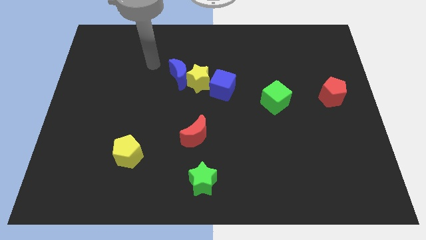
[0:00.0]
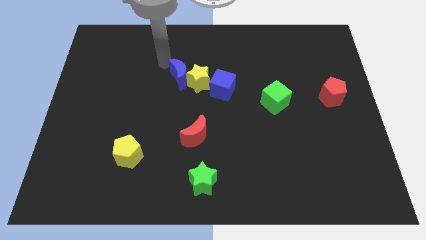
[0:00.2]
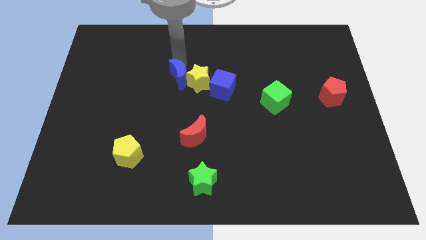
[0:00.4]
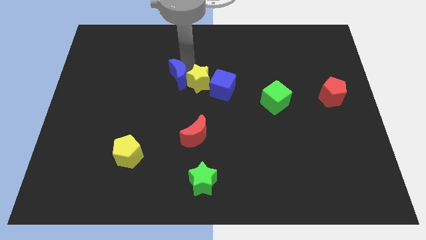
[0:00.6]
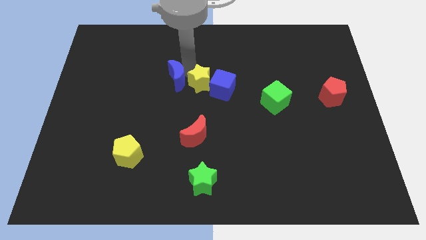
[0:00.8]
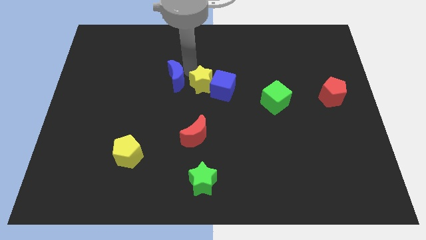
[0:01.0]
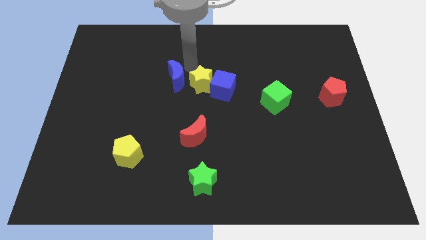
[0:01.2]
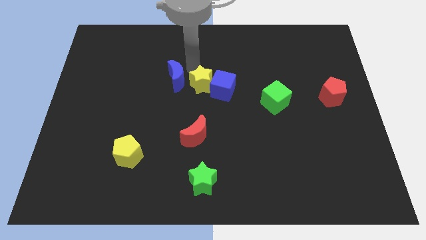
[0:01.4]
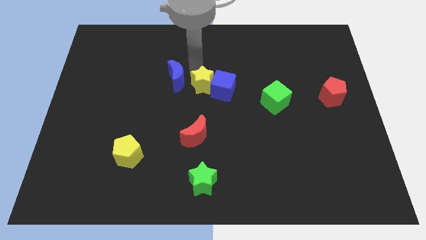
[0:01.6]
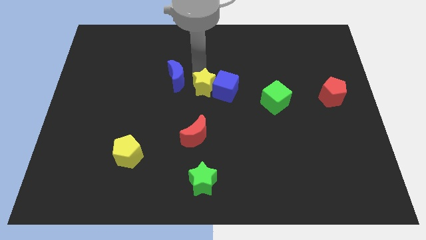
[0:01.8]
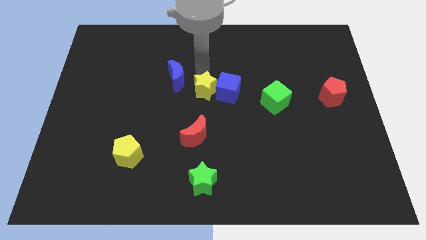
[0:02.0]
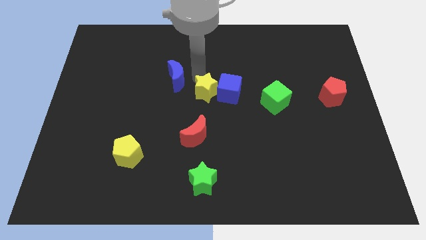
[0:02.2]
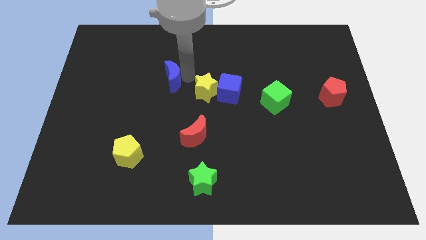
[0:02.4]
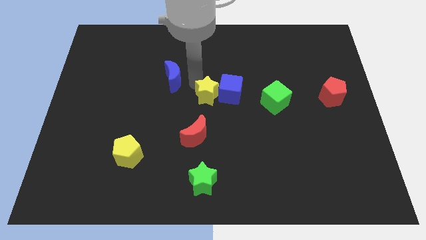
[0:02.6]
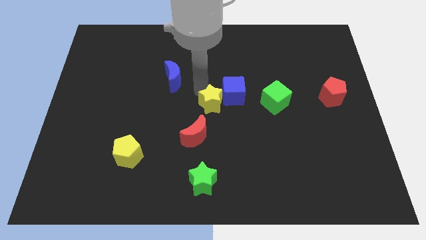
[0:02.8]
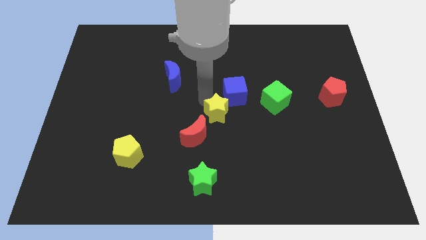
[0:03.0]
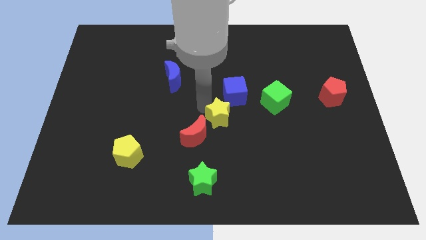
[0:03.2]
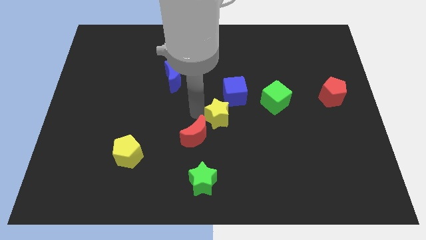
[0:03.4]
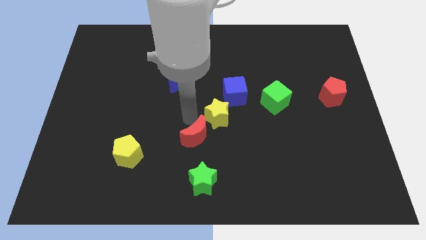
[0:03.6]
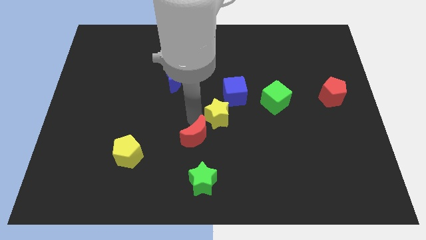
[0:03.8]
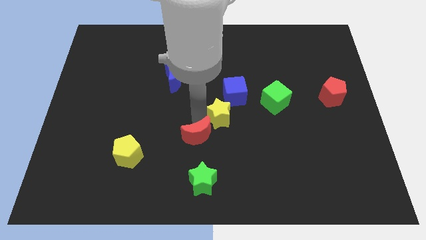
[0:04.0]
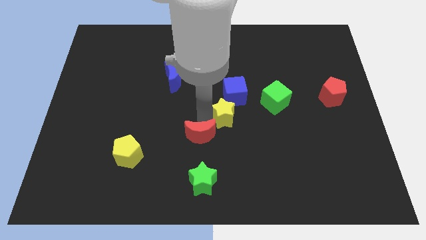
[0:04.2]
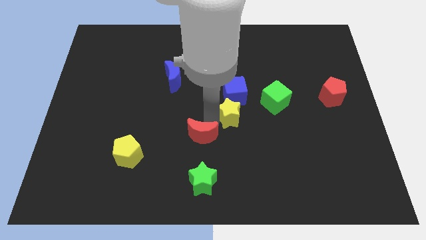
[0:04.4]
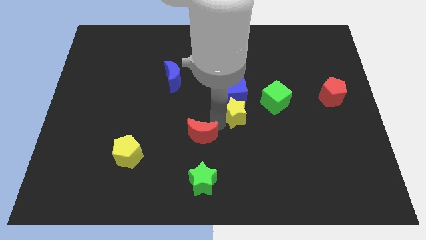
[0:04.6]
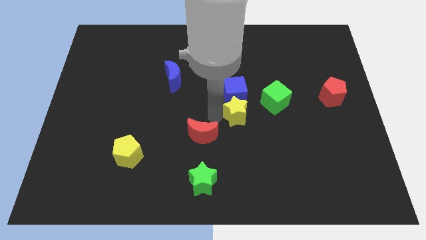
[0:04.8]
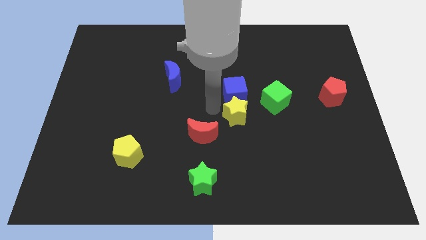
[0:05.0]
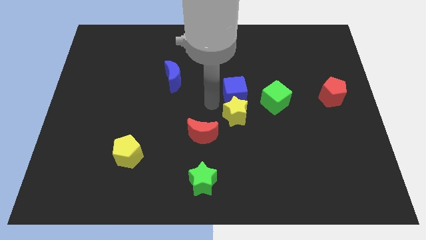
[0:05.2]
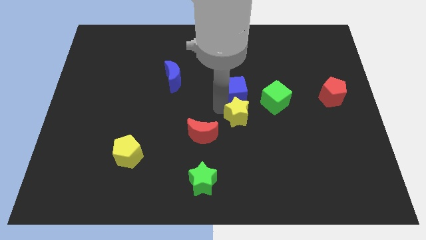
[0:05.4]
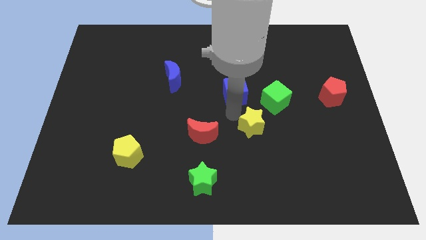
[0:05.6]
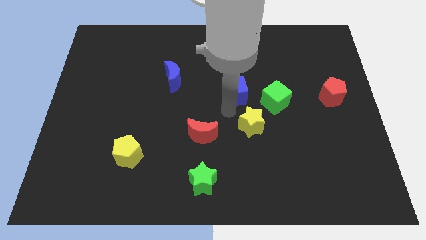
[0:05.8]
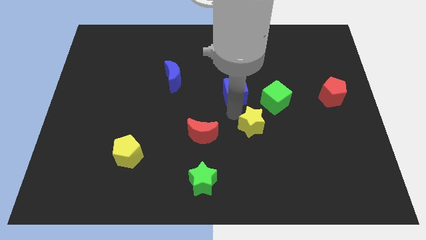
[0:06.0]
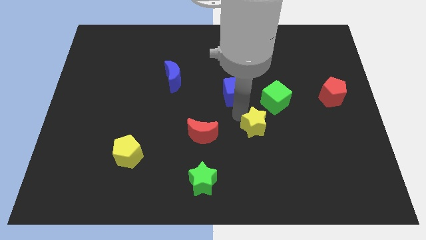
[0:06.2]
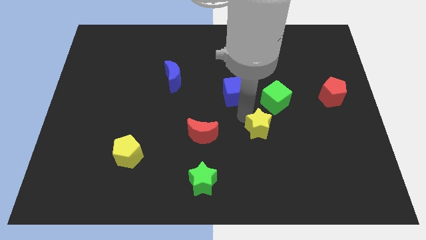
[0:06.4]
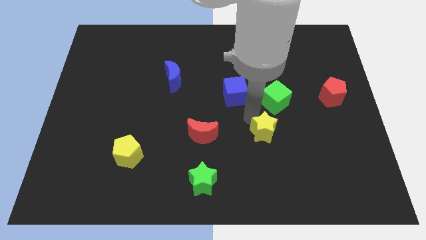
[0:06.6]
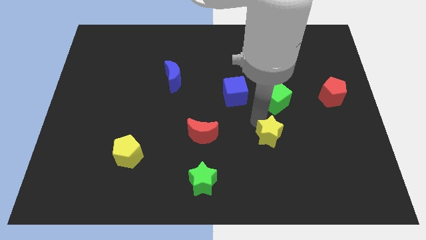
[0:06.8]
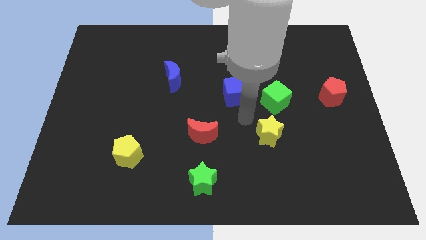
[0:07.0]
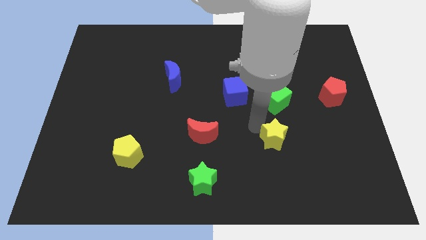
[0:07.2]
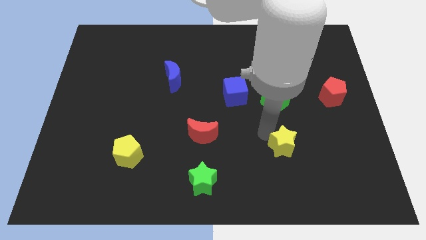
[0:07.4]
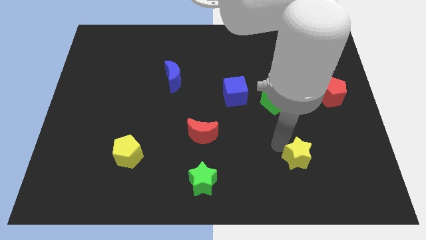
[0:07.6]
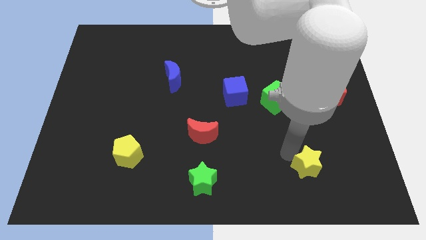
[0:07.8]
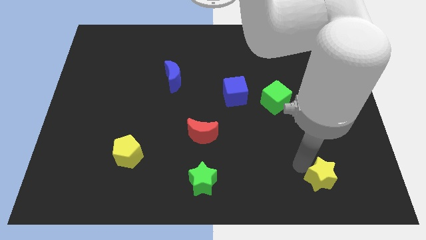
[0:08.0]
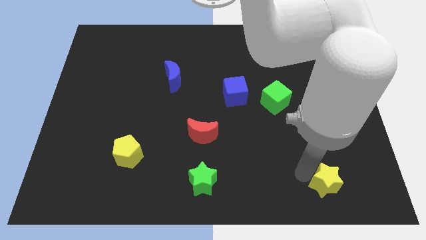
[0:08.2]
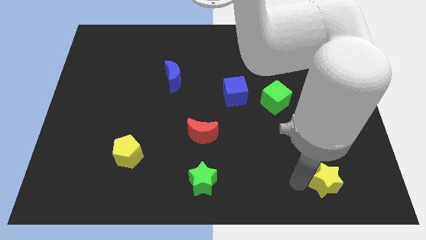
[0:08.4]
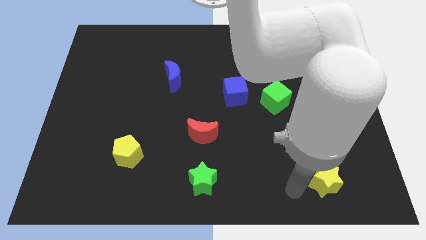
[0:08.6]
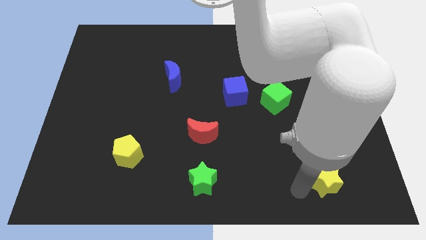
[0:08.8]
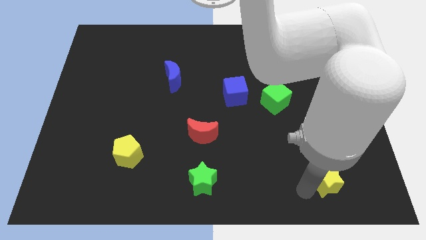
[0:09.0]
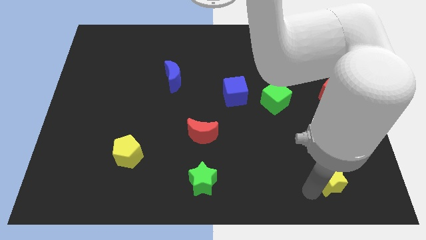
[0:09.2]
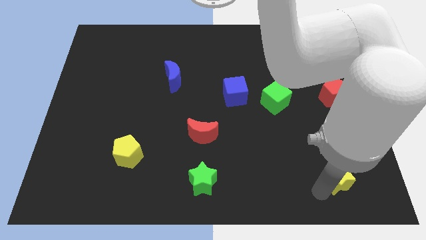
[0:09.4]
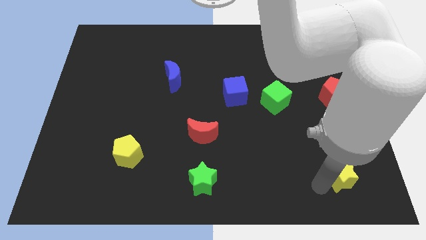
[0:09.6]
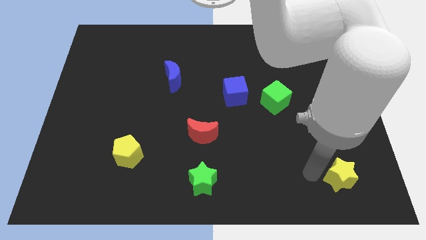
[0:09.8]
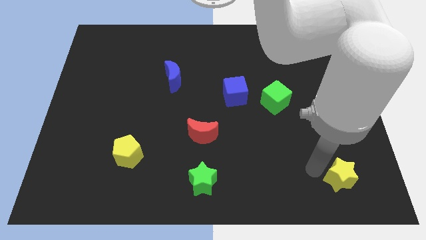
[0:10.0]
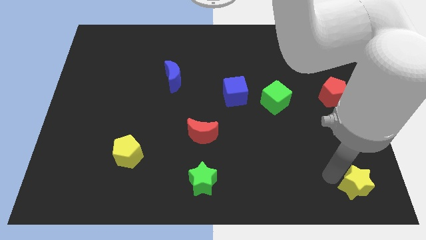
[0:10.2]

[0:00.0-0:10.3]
put the yellow star to the lower right corner

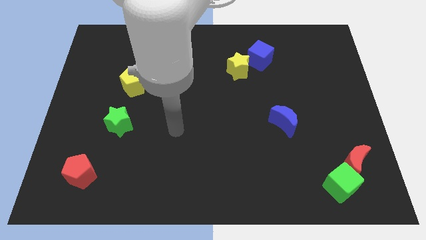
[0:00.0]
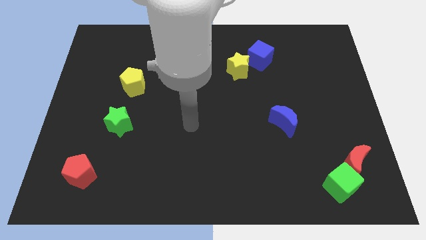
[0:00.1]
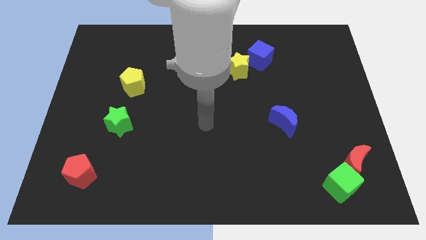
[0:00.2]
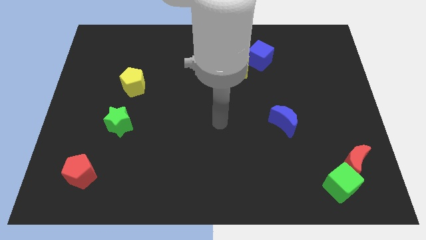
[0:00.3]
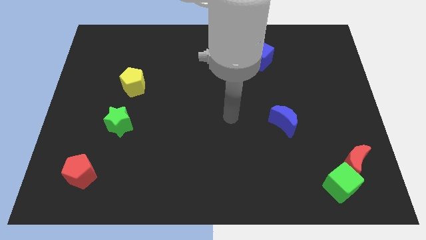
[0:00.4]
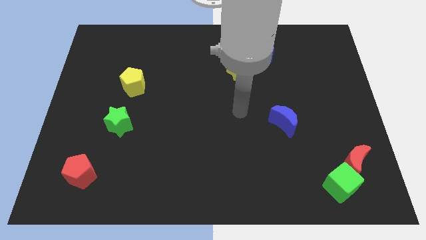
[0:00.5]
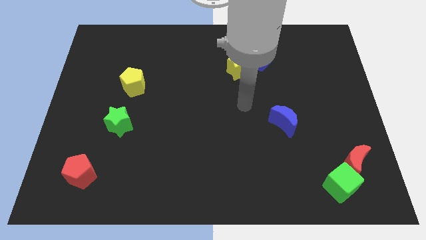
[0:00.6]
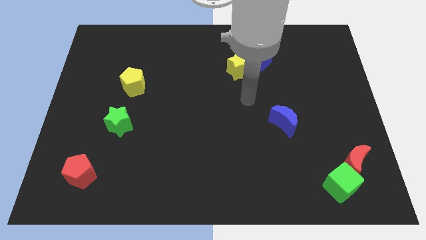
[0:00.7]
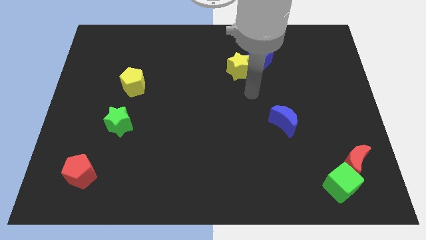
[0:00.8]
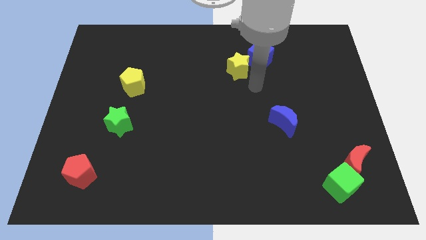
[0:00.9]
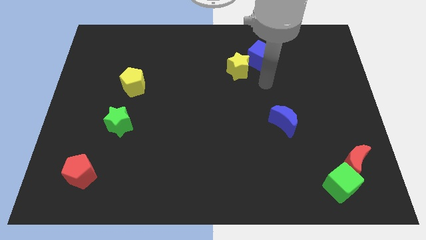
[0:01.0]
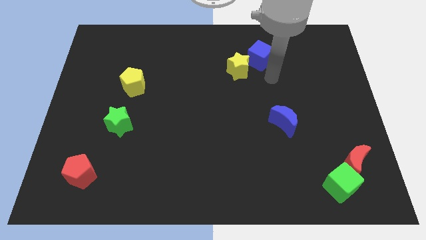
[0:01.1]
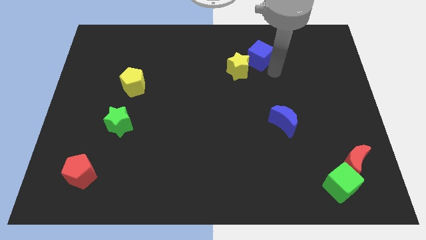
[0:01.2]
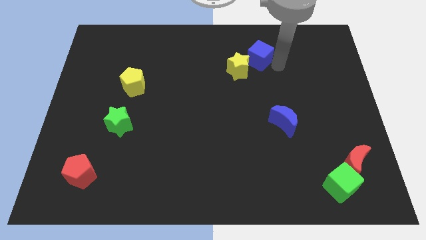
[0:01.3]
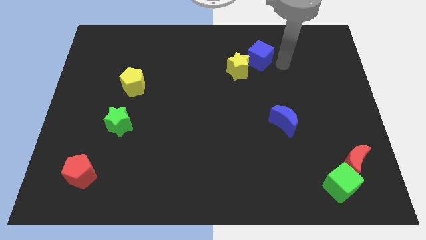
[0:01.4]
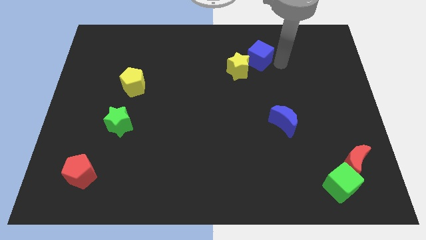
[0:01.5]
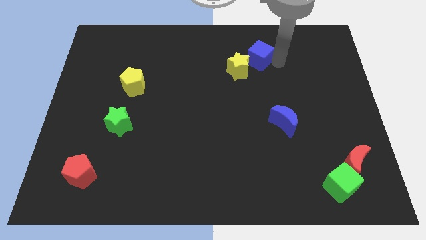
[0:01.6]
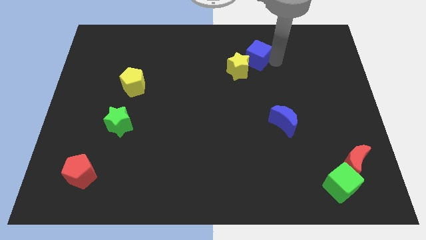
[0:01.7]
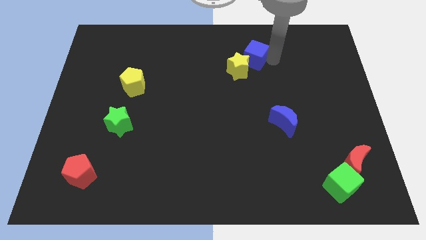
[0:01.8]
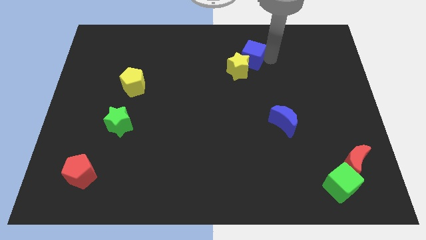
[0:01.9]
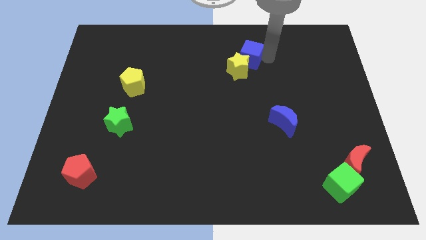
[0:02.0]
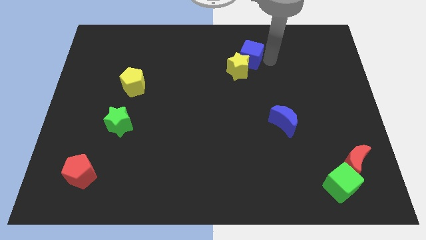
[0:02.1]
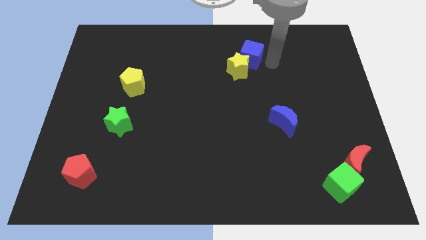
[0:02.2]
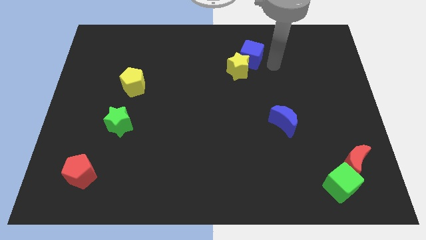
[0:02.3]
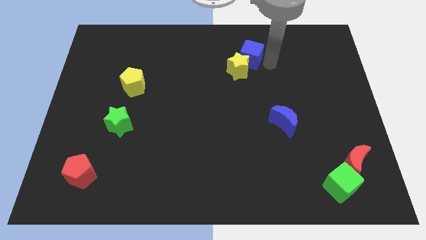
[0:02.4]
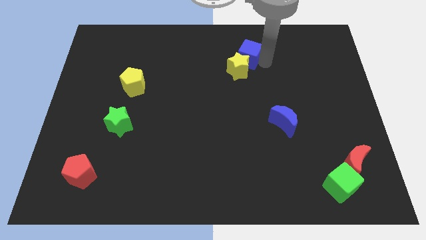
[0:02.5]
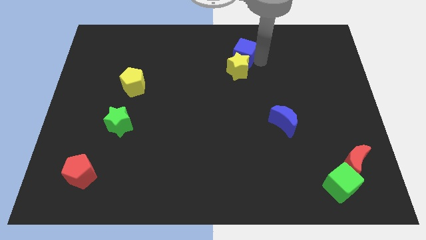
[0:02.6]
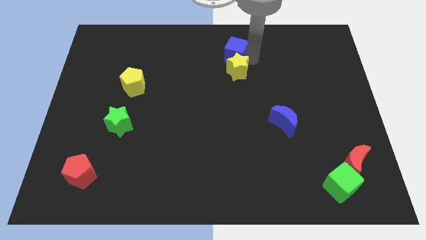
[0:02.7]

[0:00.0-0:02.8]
move the blue cube to the top side
